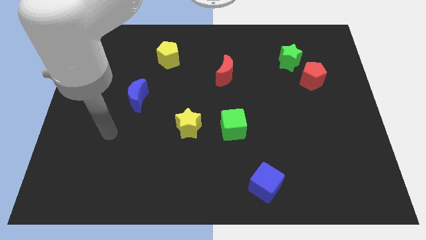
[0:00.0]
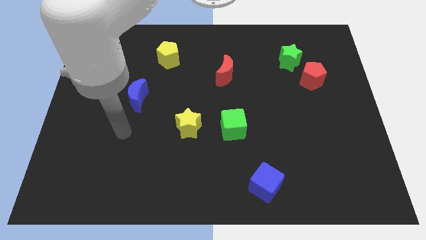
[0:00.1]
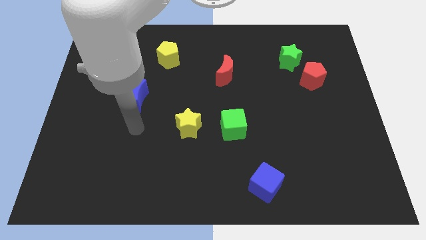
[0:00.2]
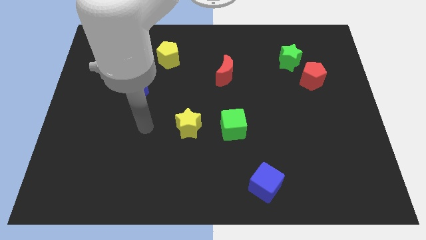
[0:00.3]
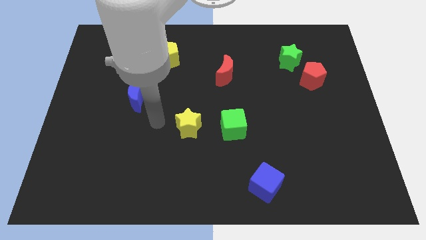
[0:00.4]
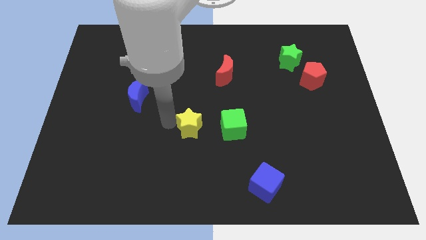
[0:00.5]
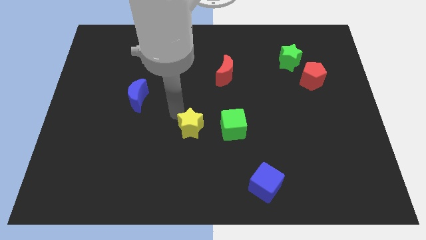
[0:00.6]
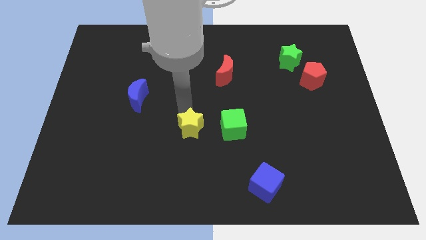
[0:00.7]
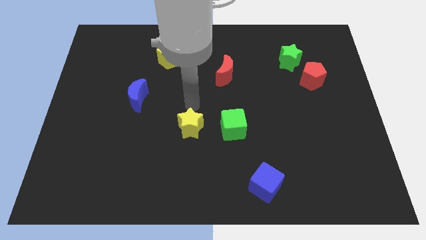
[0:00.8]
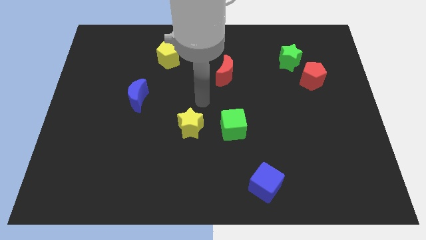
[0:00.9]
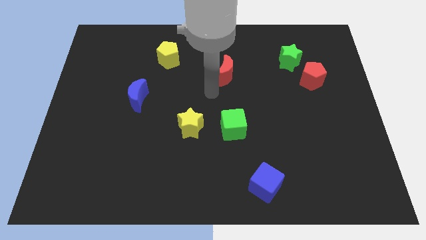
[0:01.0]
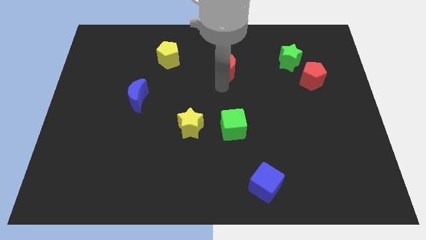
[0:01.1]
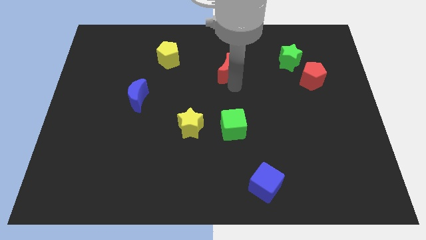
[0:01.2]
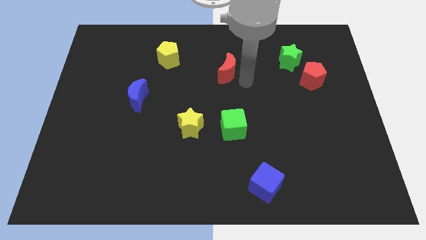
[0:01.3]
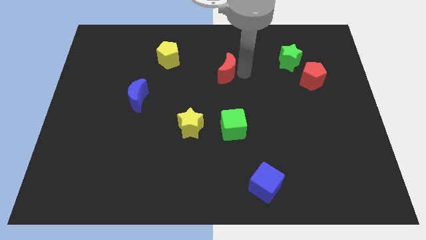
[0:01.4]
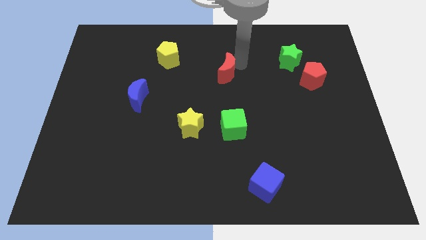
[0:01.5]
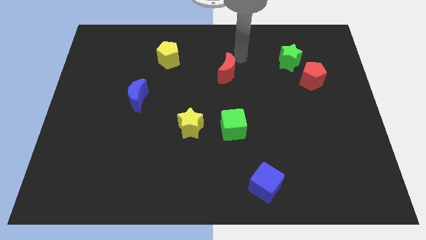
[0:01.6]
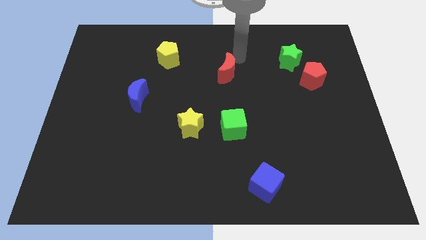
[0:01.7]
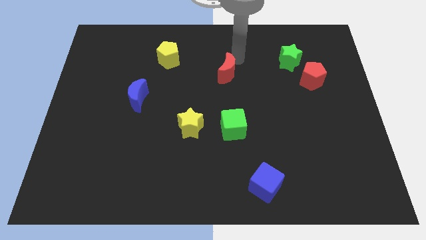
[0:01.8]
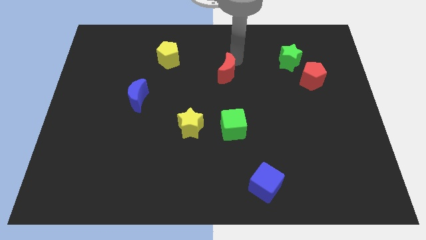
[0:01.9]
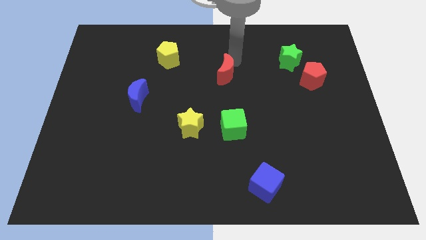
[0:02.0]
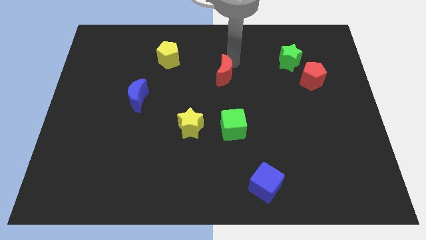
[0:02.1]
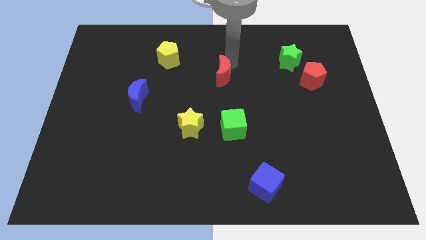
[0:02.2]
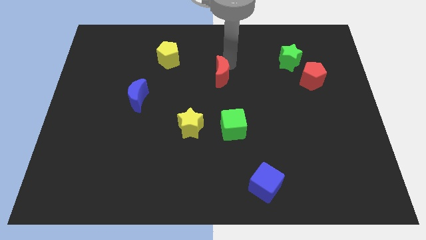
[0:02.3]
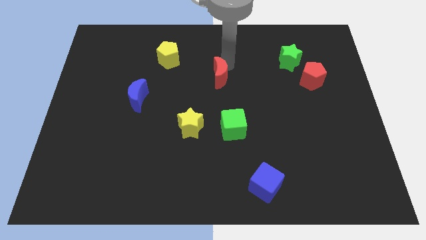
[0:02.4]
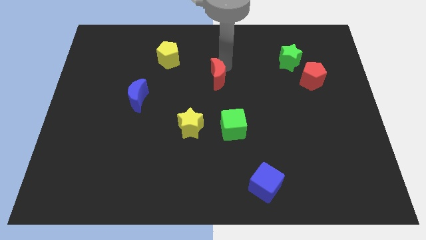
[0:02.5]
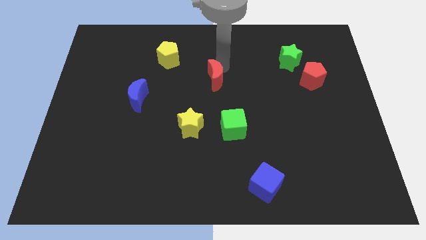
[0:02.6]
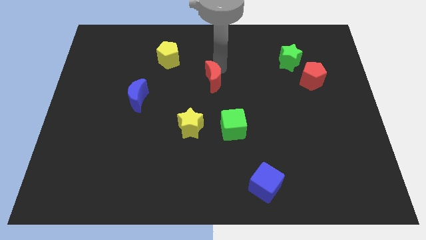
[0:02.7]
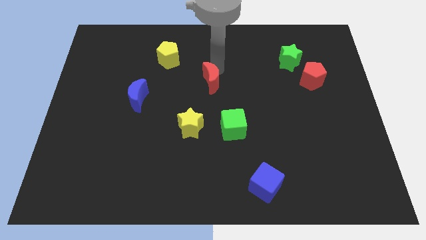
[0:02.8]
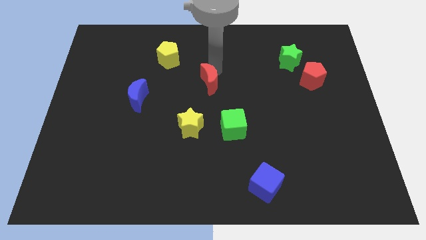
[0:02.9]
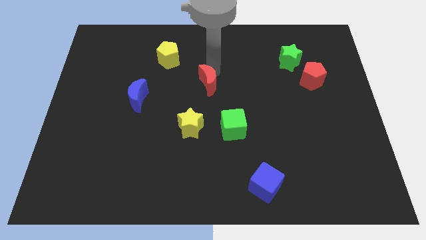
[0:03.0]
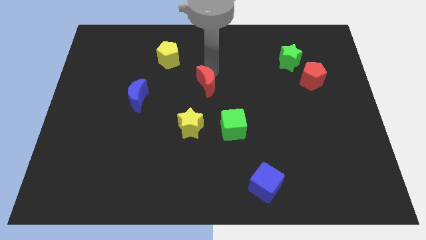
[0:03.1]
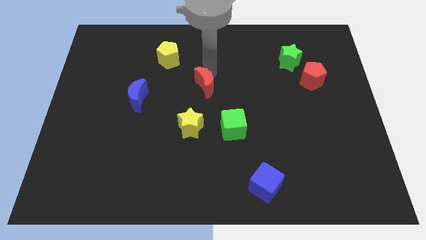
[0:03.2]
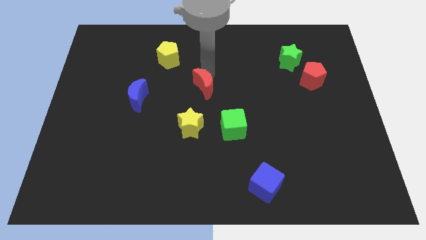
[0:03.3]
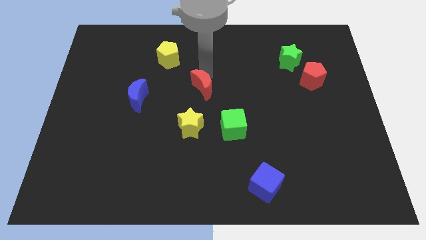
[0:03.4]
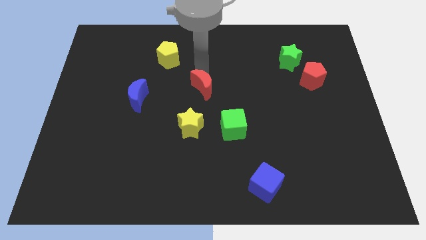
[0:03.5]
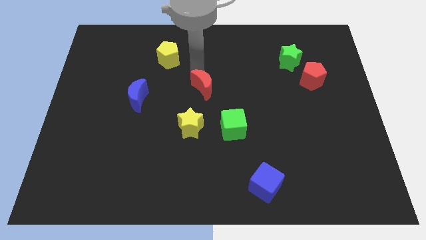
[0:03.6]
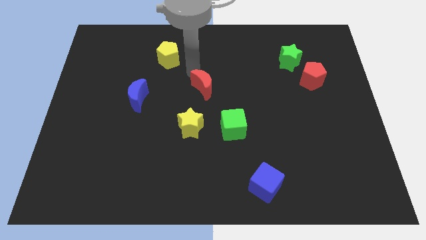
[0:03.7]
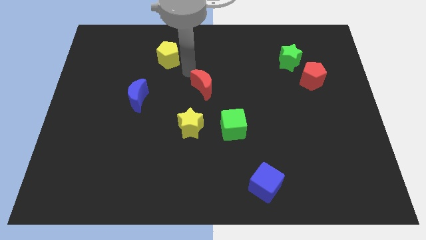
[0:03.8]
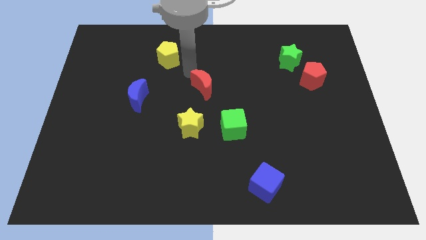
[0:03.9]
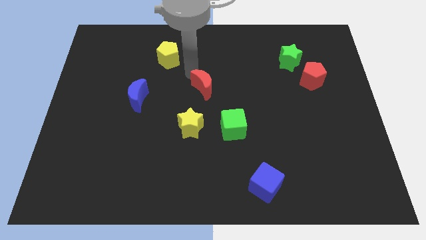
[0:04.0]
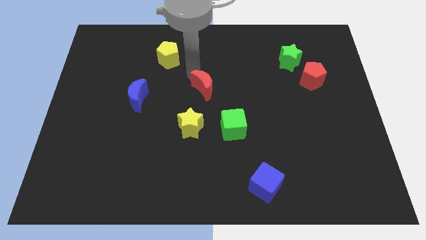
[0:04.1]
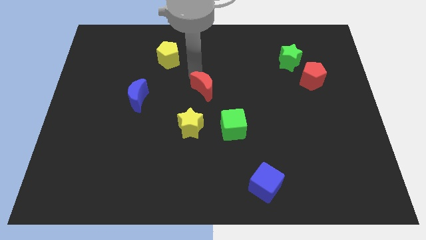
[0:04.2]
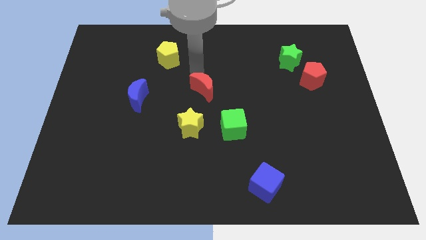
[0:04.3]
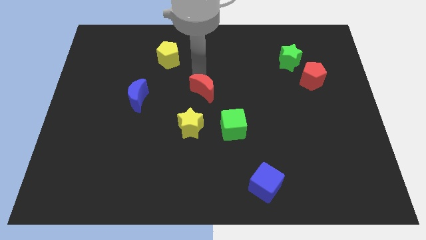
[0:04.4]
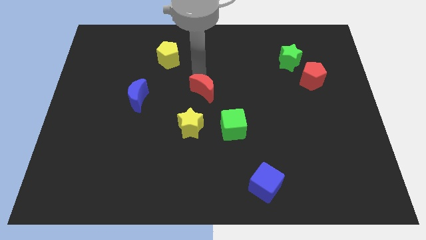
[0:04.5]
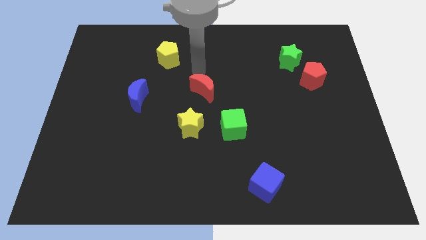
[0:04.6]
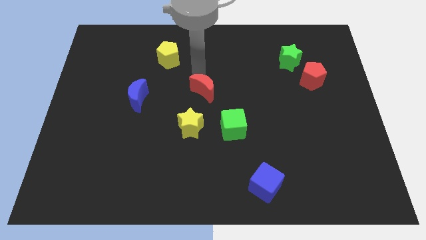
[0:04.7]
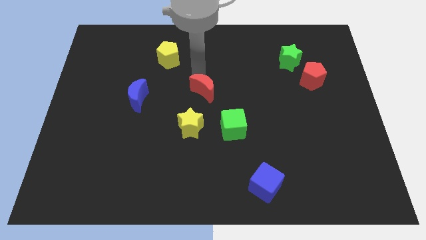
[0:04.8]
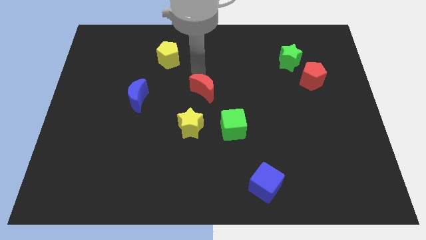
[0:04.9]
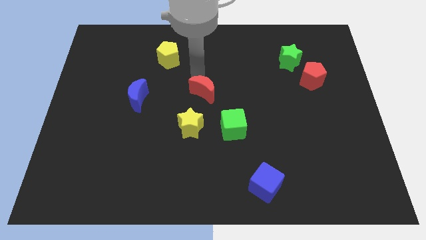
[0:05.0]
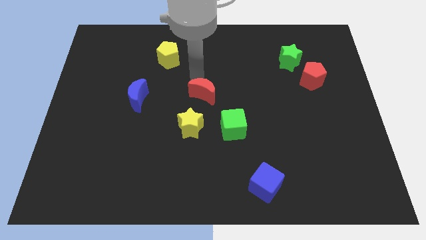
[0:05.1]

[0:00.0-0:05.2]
push the red moon to the top left of the green cube

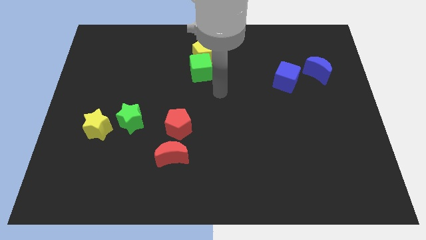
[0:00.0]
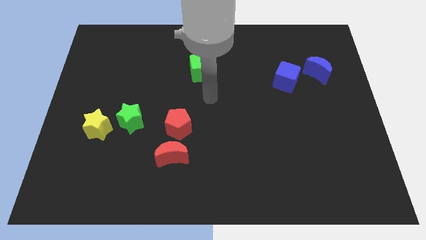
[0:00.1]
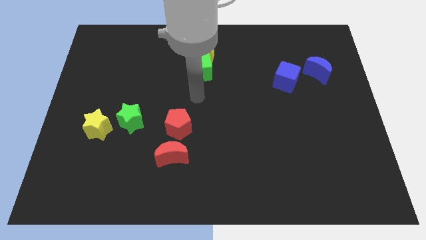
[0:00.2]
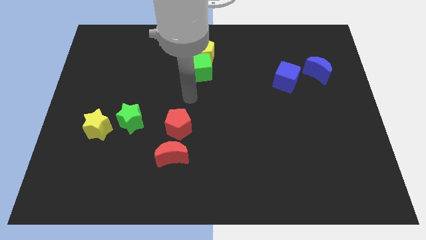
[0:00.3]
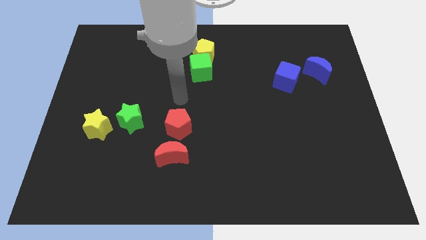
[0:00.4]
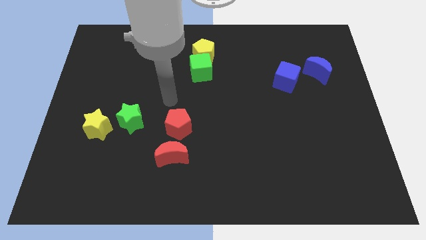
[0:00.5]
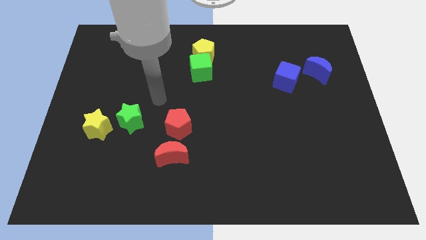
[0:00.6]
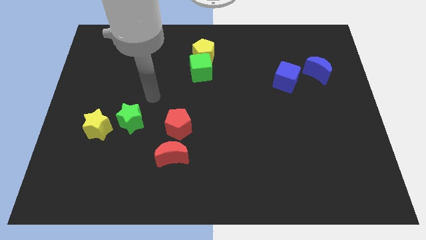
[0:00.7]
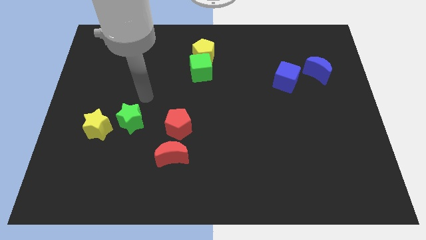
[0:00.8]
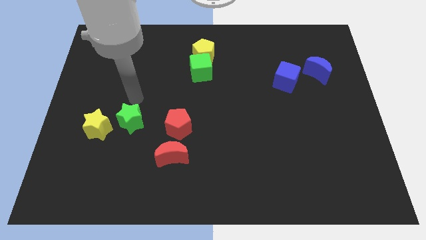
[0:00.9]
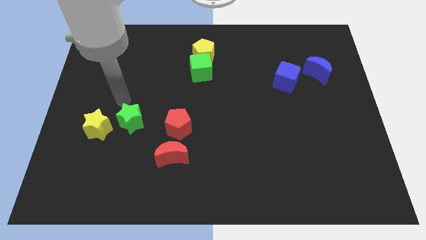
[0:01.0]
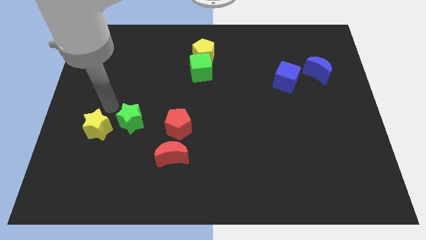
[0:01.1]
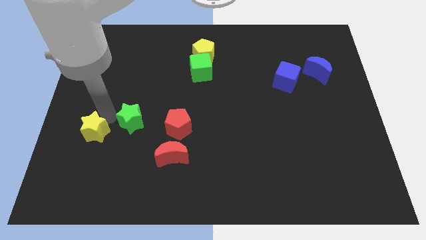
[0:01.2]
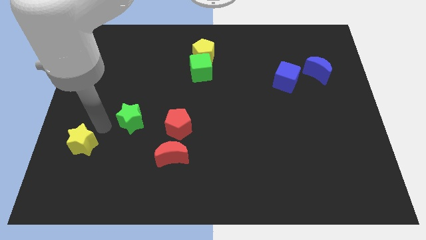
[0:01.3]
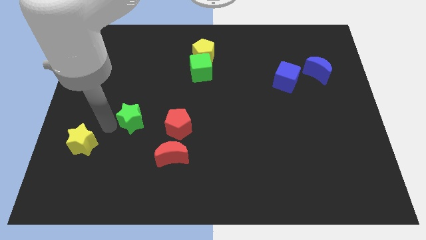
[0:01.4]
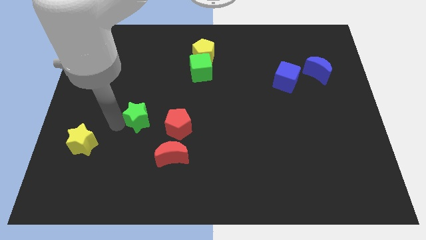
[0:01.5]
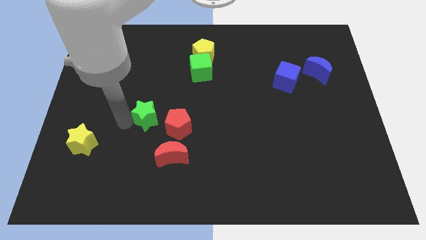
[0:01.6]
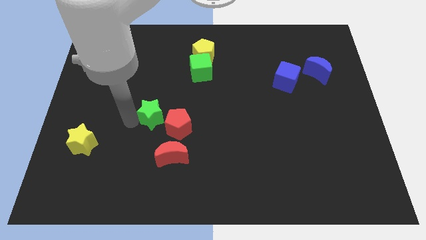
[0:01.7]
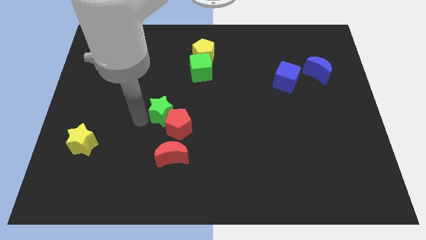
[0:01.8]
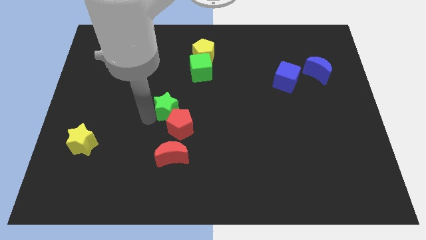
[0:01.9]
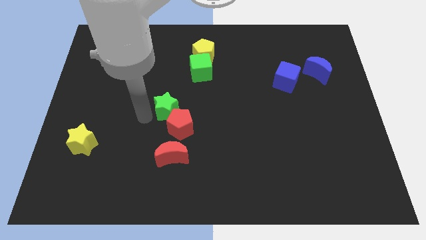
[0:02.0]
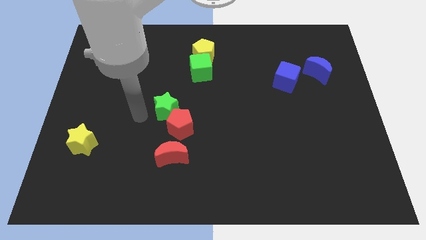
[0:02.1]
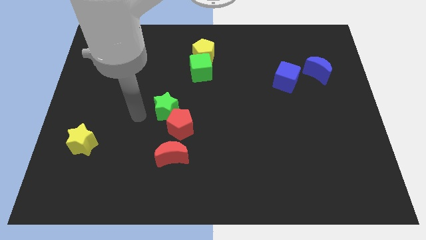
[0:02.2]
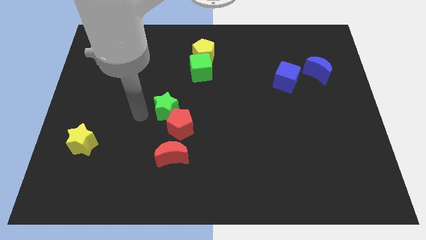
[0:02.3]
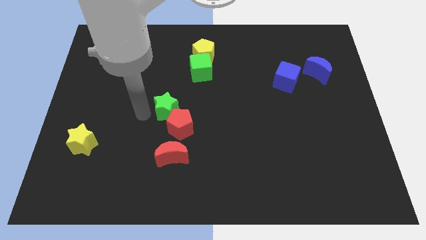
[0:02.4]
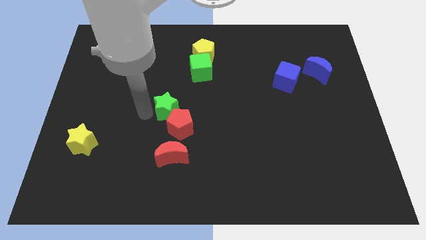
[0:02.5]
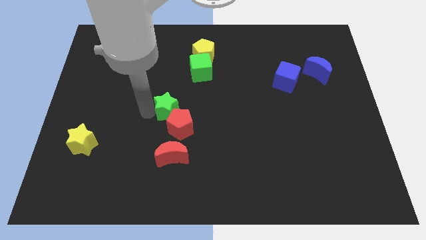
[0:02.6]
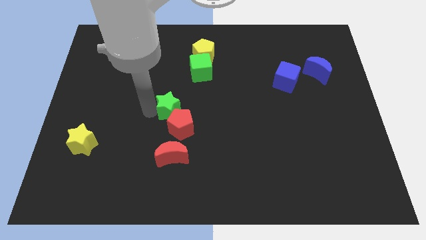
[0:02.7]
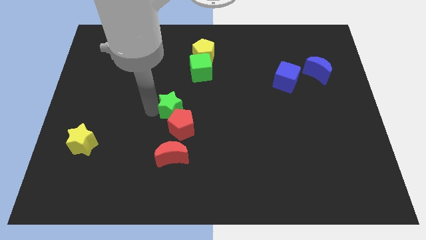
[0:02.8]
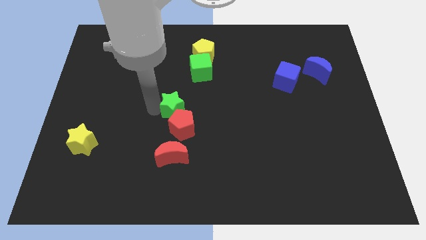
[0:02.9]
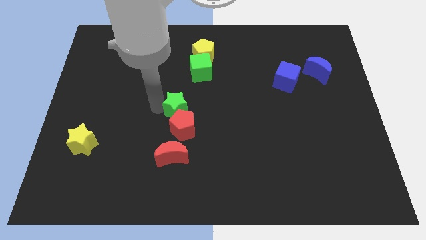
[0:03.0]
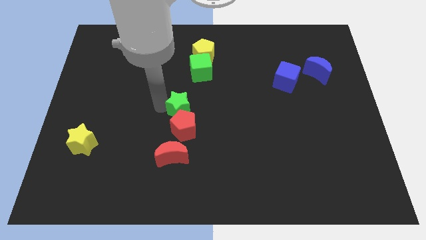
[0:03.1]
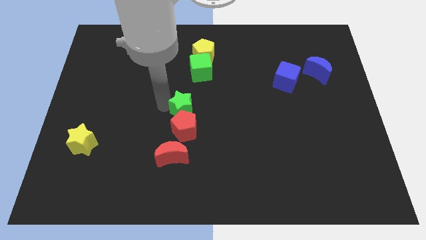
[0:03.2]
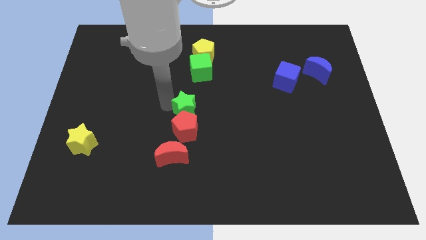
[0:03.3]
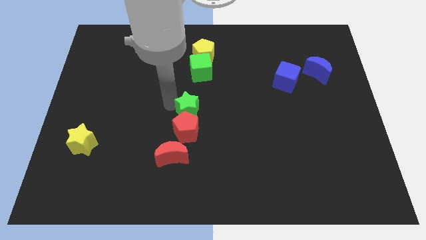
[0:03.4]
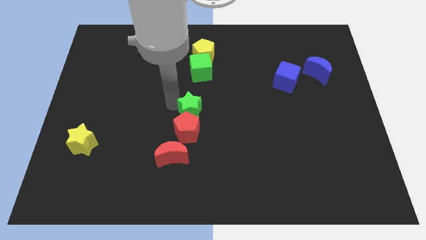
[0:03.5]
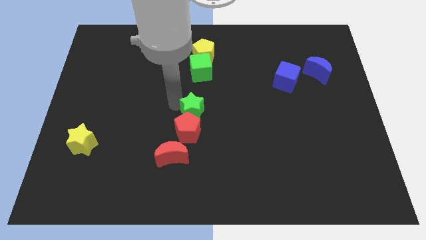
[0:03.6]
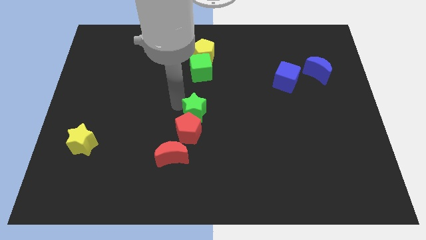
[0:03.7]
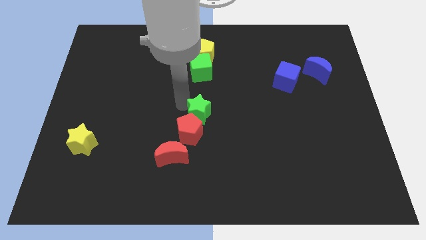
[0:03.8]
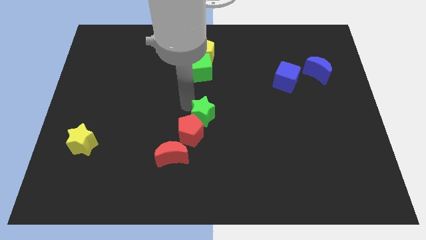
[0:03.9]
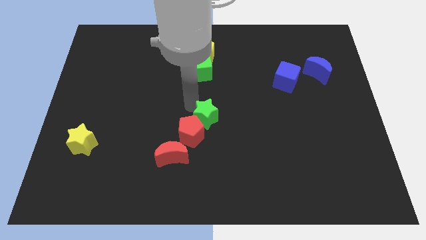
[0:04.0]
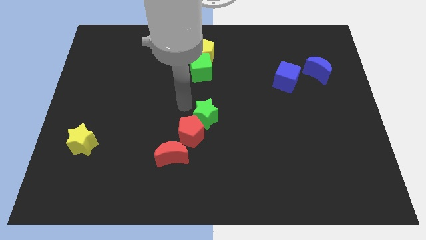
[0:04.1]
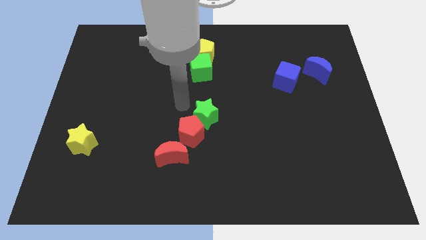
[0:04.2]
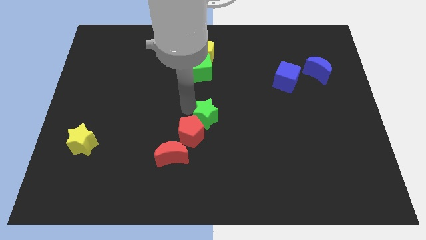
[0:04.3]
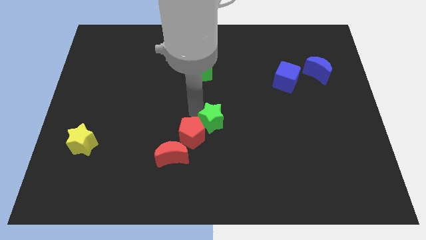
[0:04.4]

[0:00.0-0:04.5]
push the green star to the right side of the red pentagon
